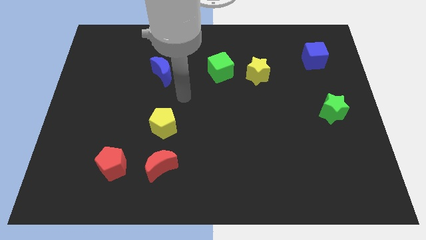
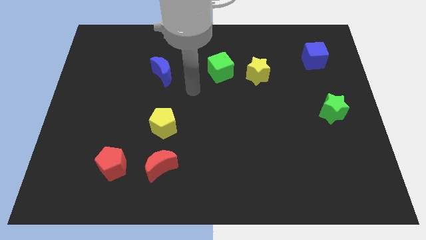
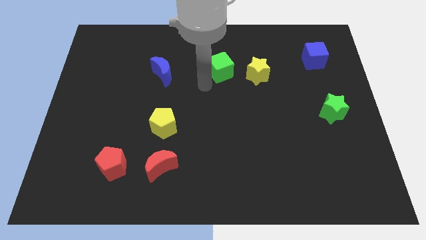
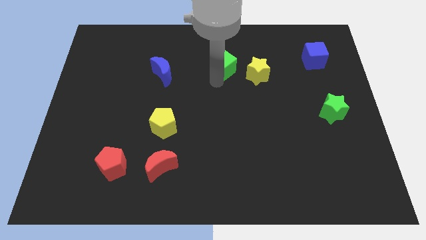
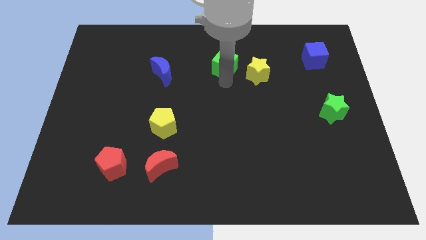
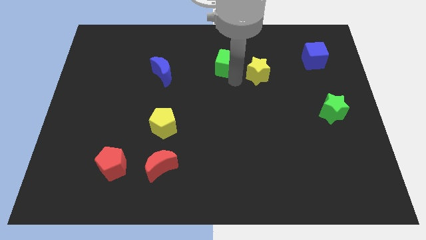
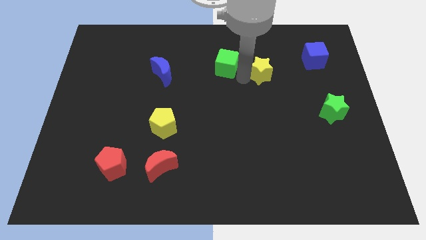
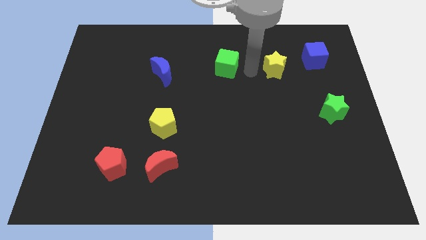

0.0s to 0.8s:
move the green cube away from the yellow star

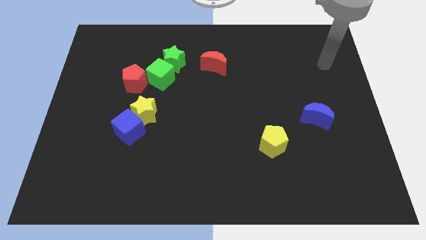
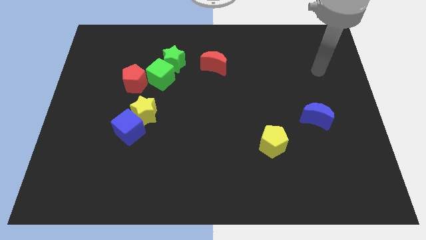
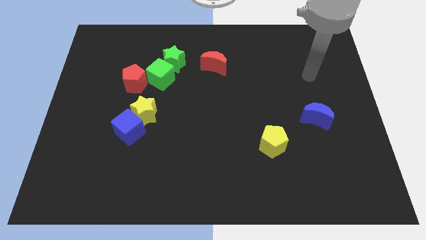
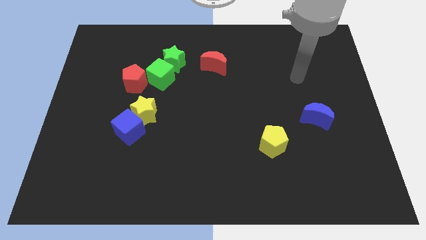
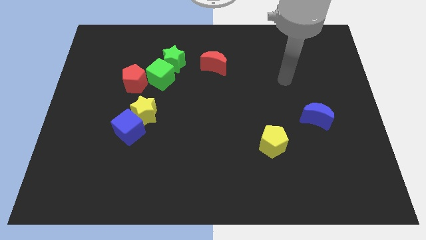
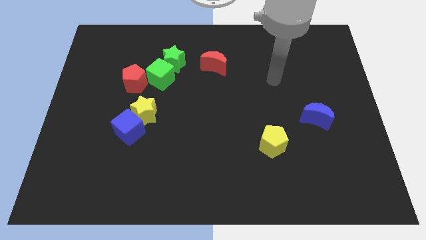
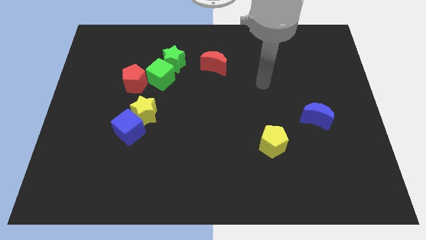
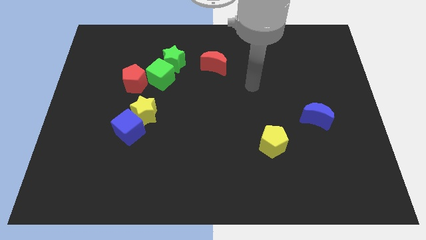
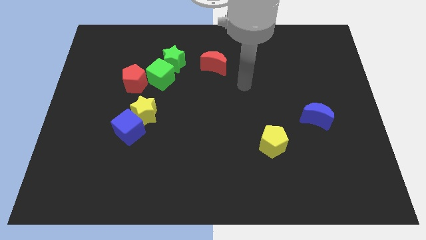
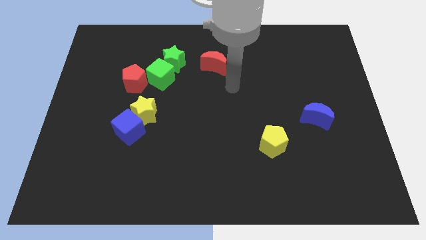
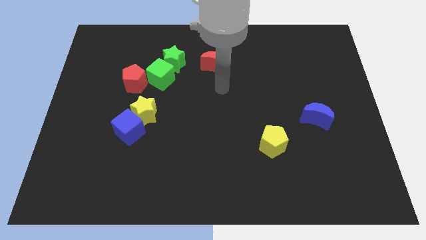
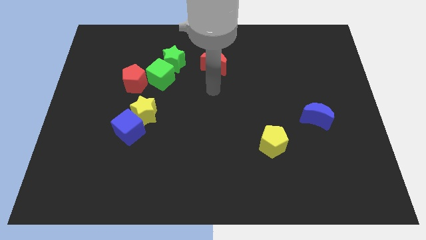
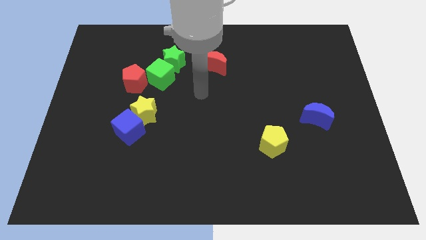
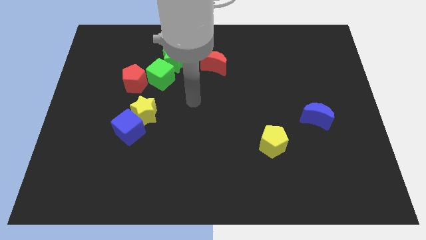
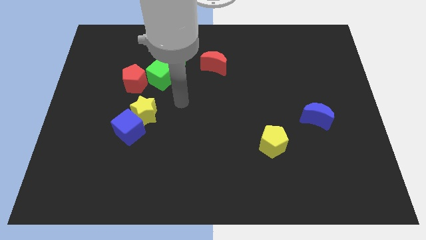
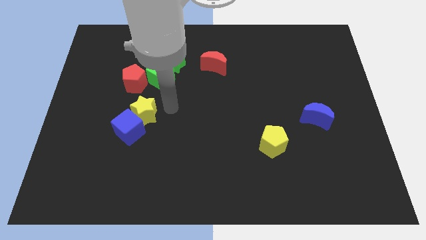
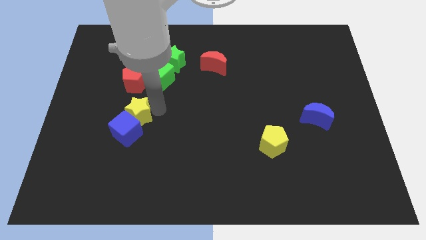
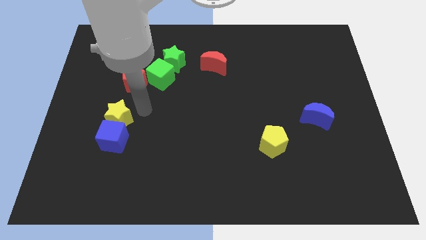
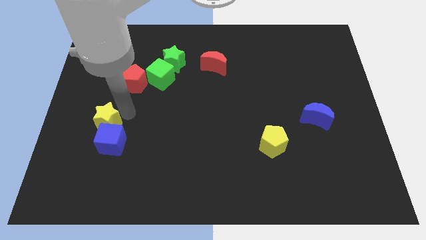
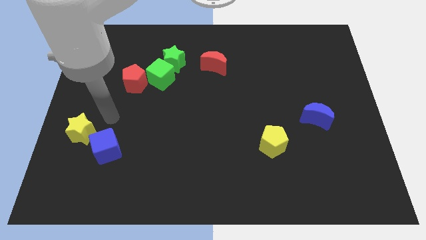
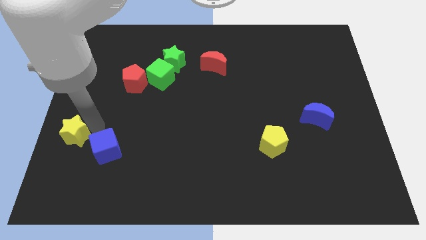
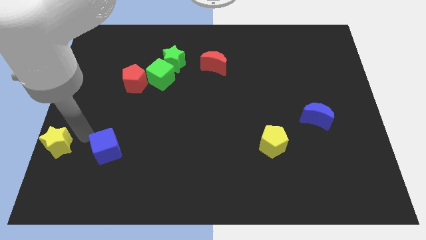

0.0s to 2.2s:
move the blue cube away from the yellow star

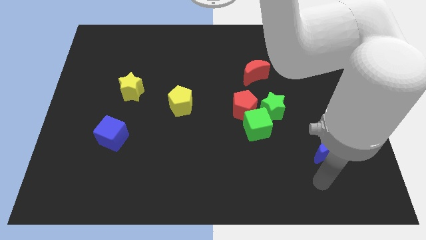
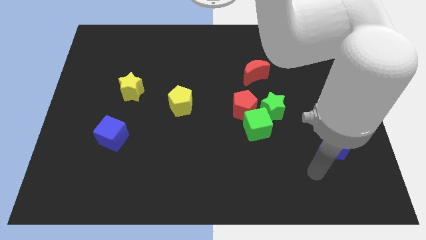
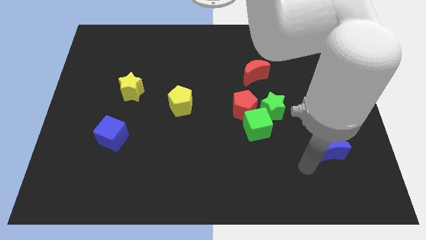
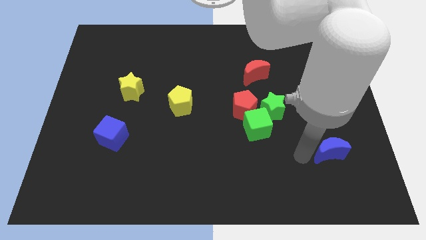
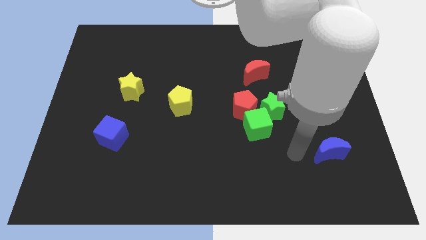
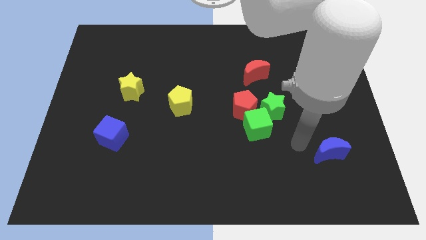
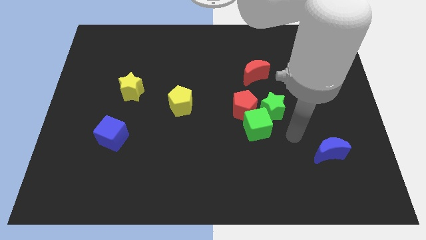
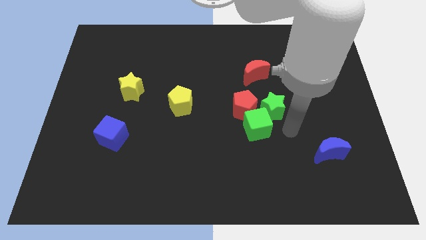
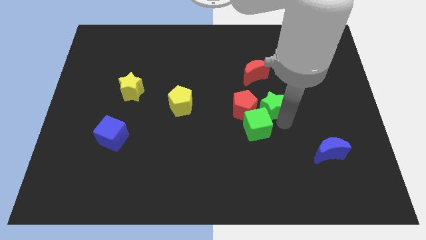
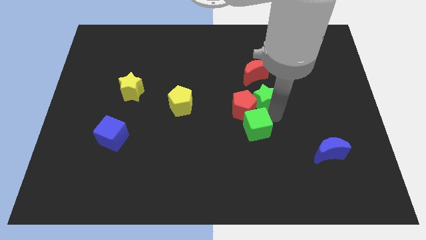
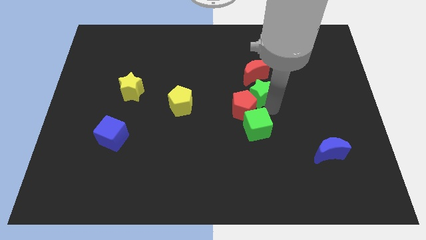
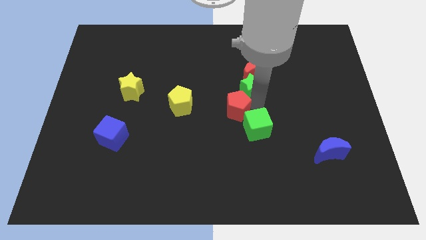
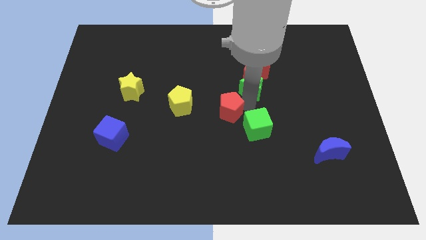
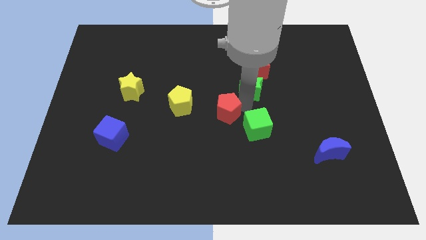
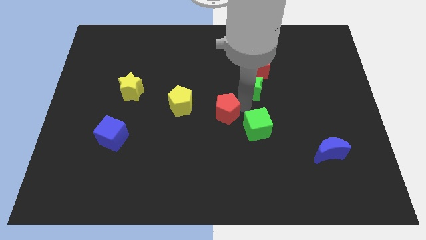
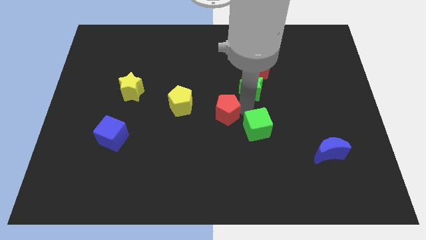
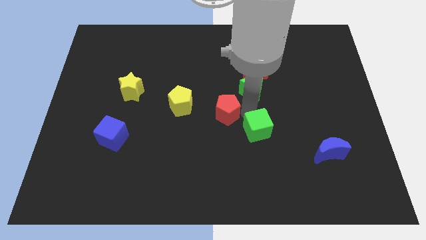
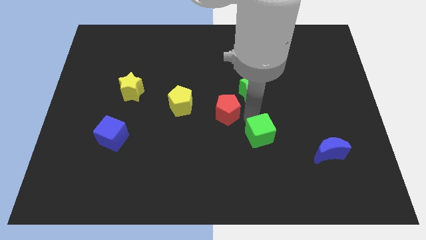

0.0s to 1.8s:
move the green cube away from the red pentagon and green star

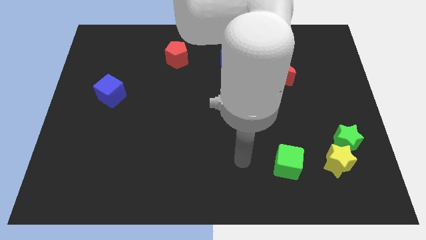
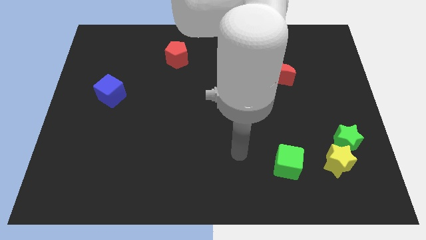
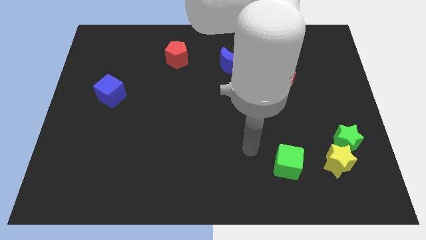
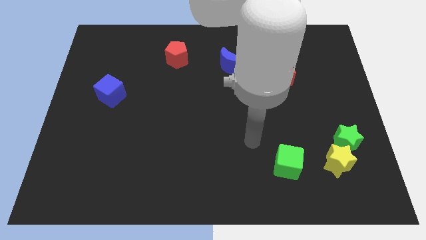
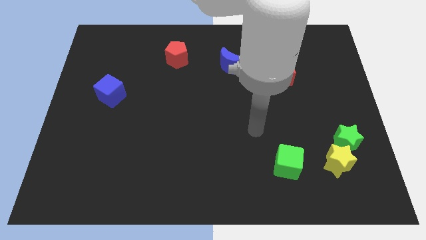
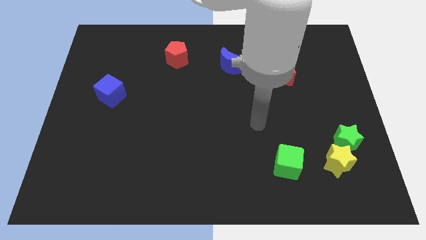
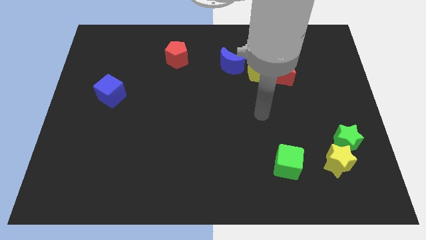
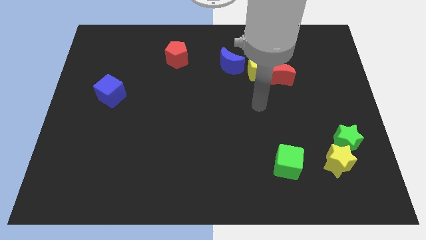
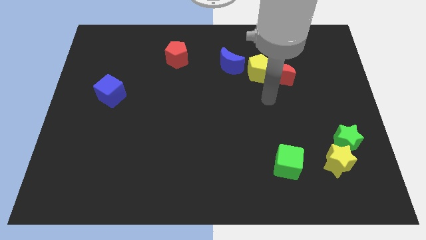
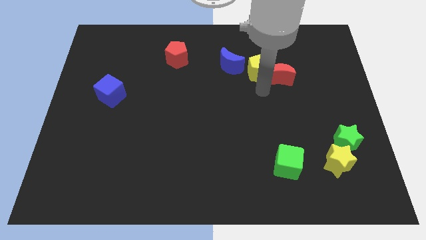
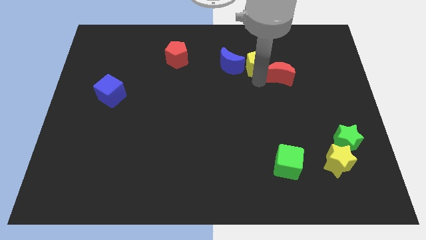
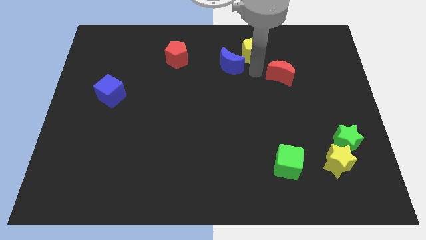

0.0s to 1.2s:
separate the red moon from the yellow pentagon

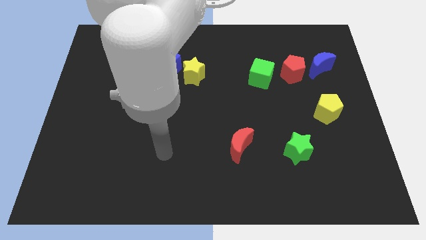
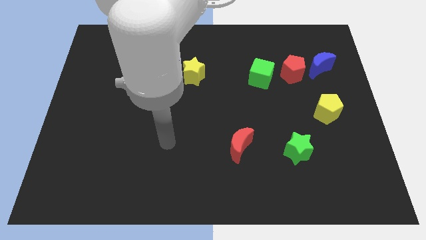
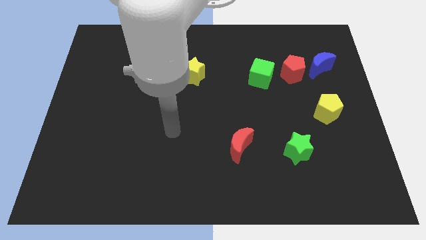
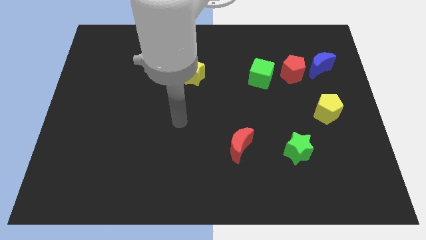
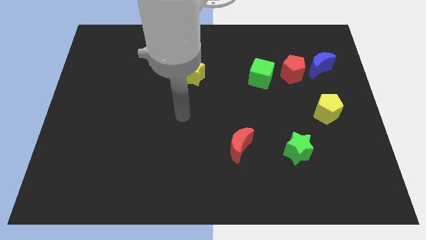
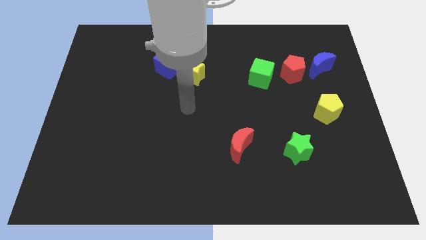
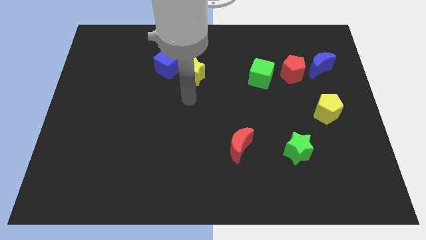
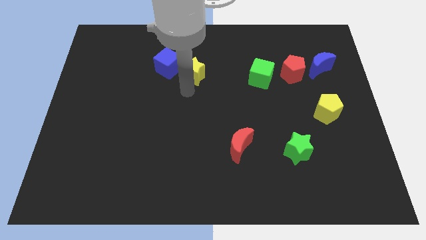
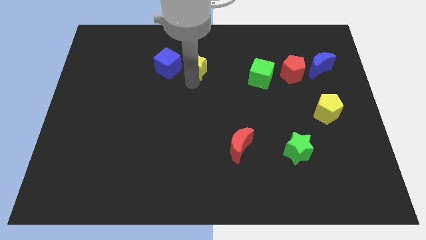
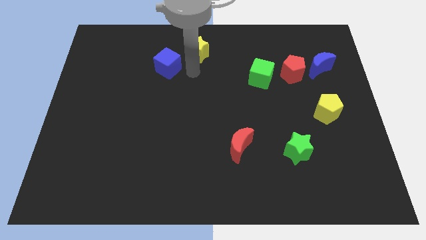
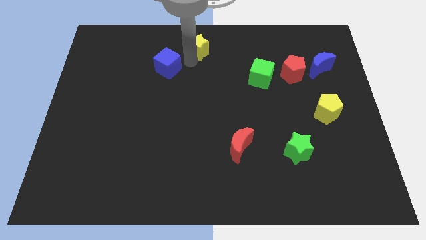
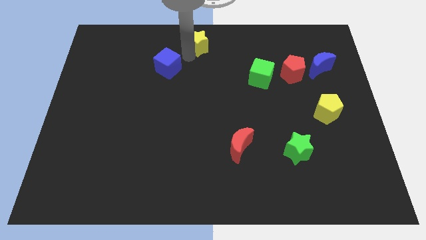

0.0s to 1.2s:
pull the blue cube apart from the yellow star

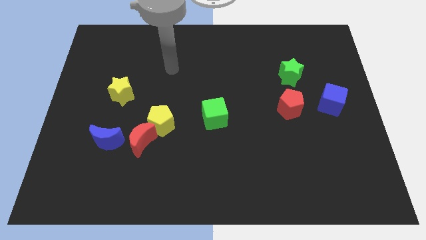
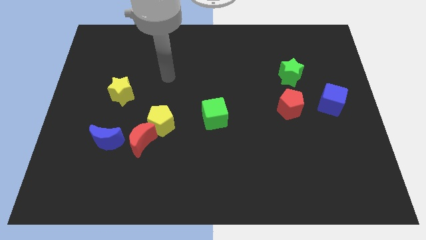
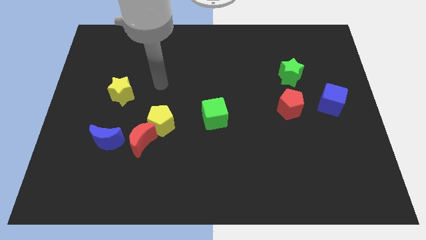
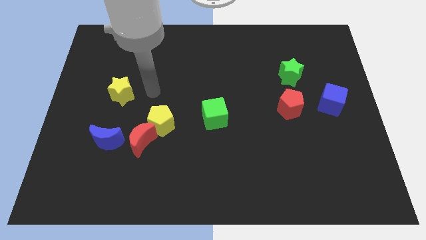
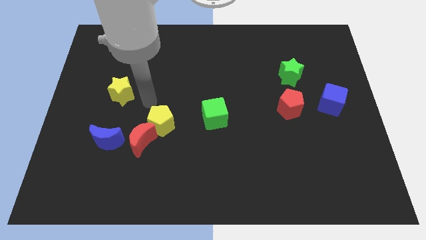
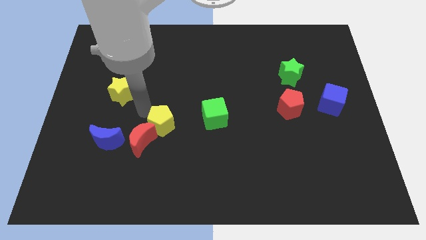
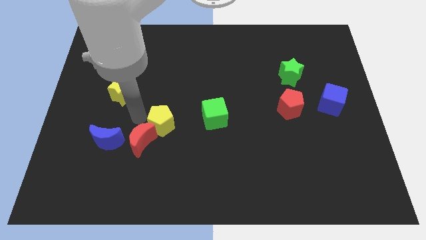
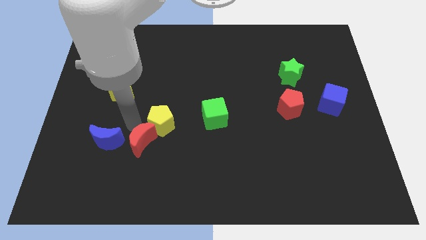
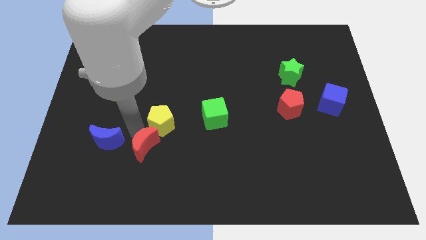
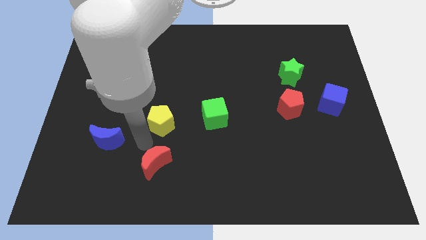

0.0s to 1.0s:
pull the yellow pentagon apart from the red moon

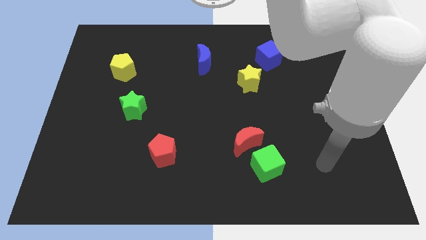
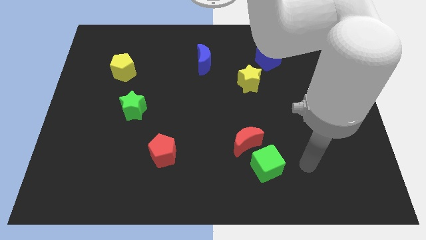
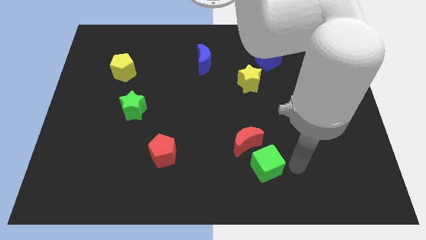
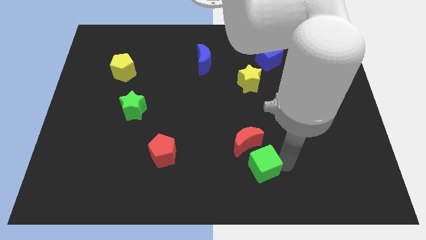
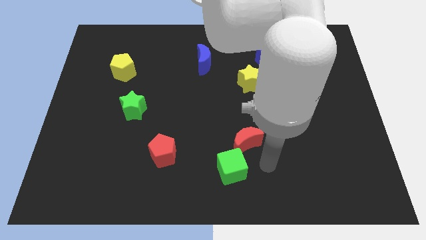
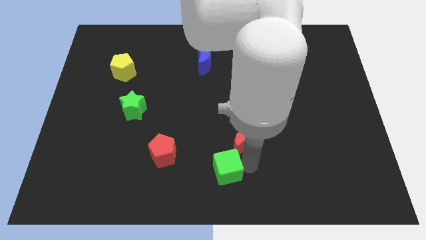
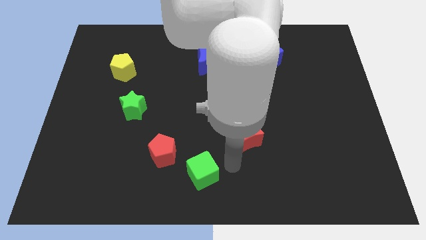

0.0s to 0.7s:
separate the red moon from the green cube

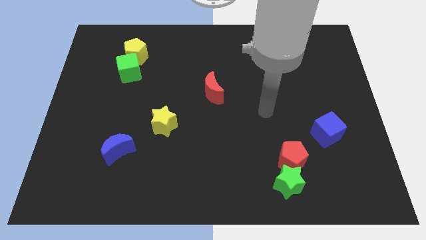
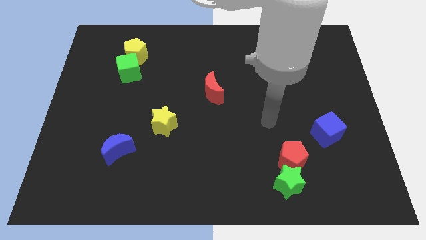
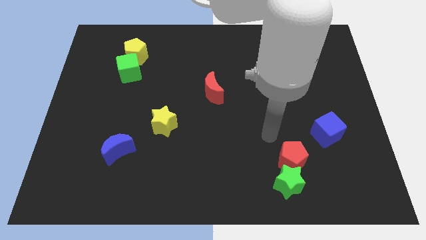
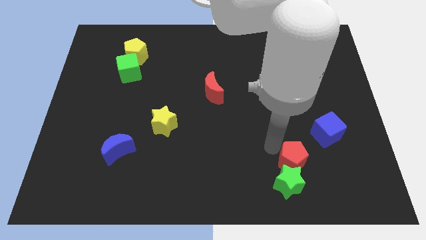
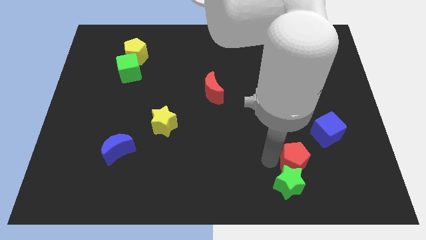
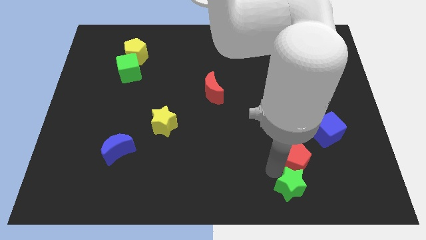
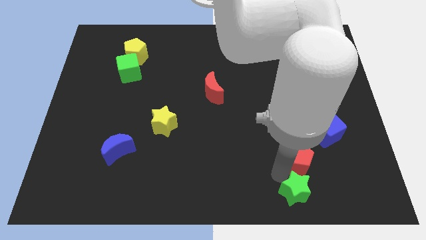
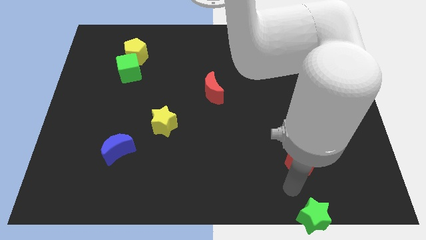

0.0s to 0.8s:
pull the red pentagon apart from the green star
